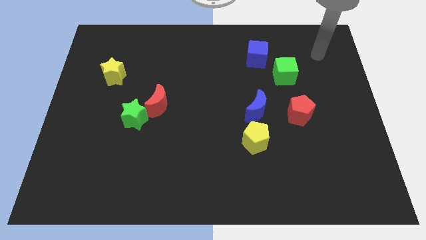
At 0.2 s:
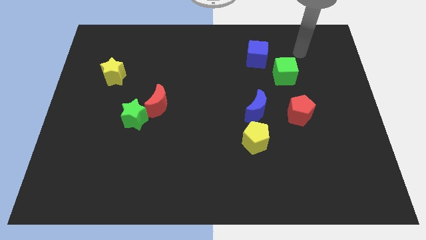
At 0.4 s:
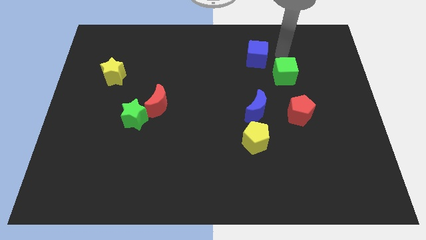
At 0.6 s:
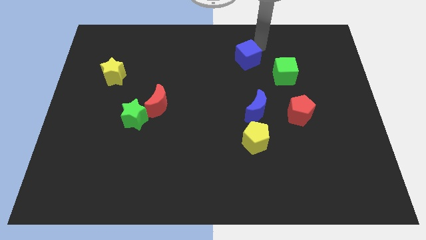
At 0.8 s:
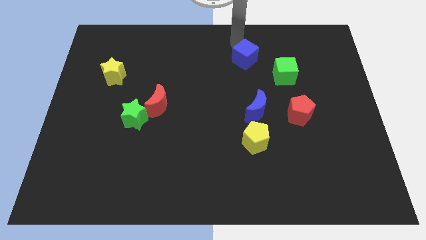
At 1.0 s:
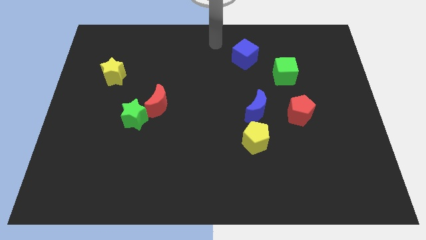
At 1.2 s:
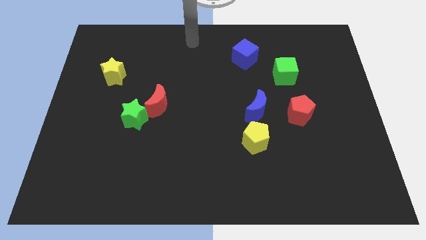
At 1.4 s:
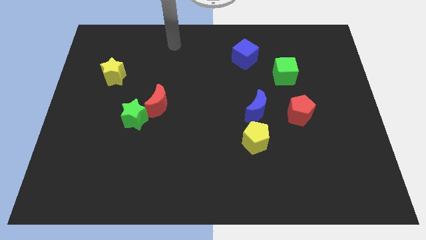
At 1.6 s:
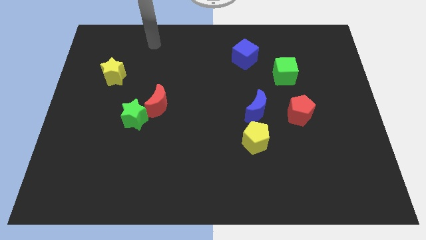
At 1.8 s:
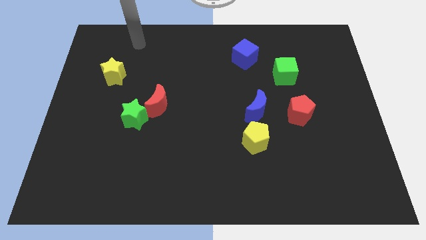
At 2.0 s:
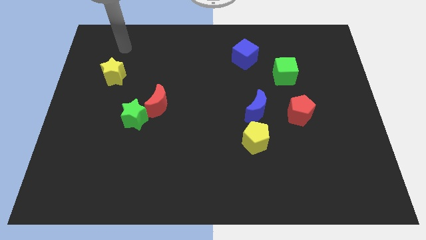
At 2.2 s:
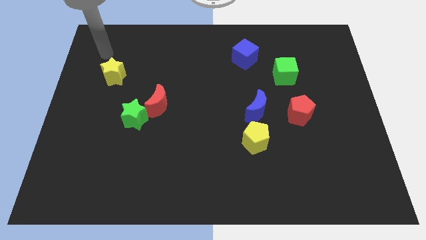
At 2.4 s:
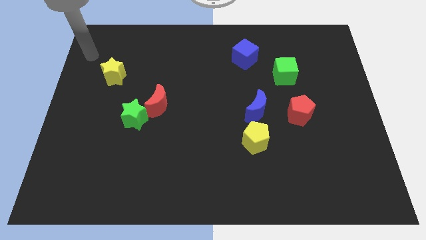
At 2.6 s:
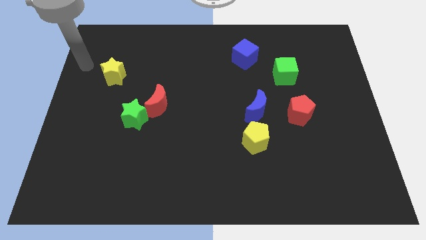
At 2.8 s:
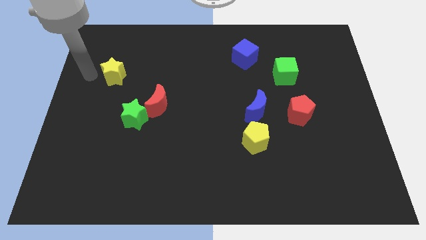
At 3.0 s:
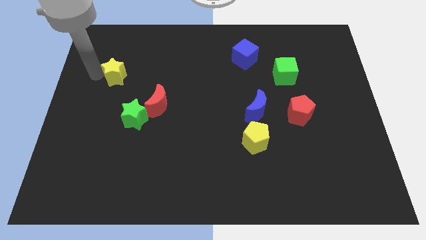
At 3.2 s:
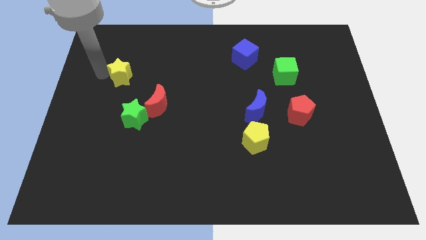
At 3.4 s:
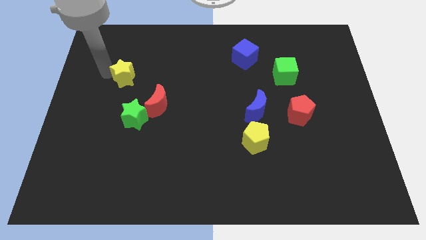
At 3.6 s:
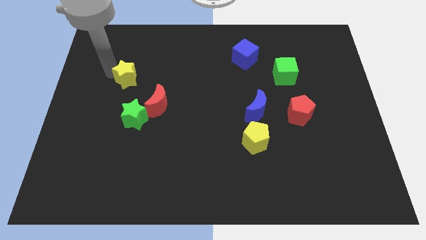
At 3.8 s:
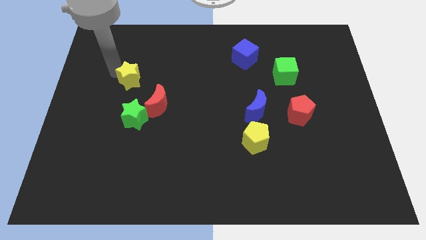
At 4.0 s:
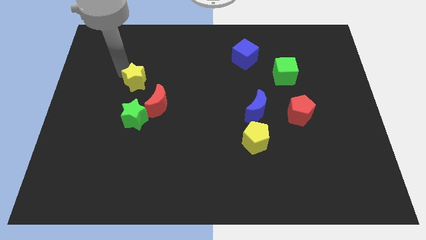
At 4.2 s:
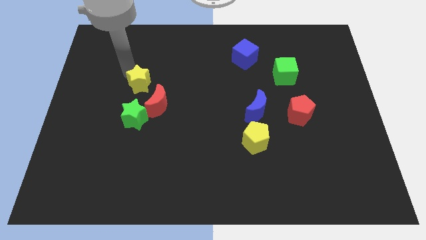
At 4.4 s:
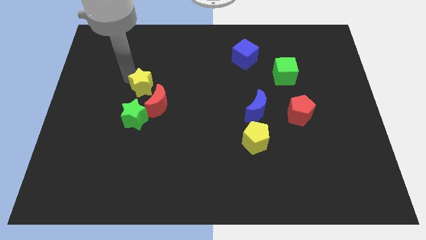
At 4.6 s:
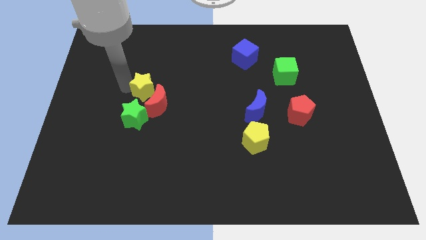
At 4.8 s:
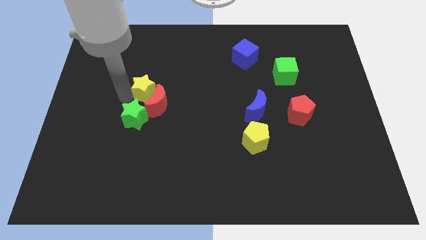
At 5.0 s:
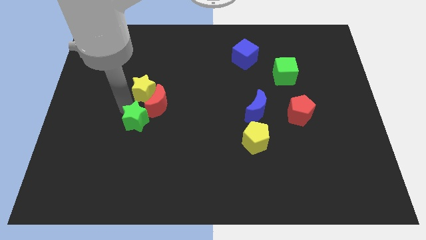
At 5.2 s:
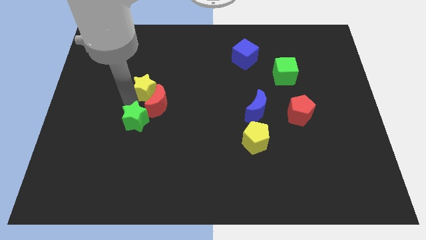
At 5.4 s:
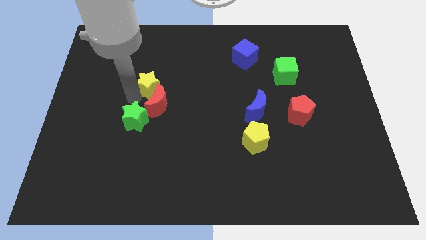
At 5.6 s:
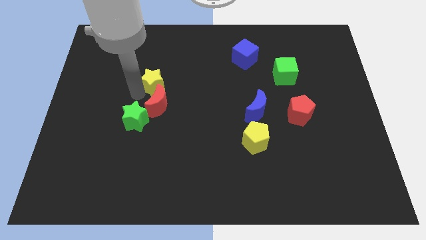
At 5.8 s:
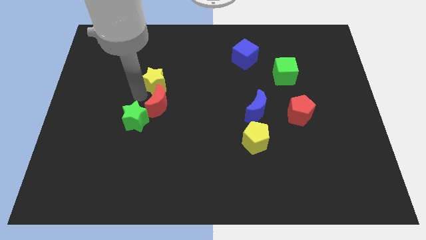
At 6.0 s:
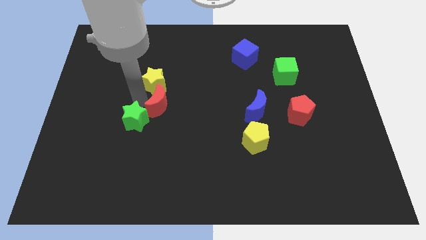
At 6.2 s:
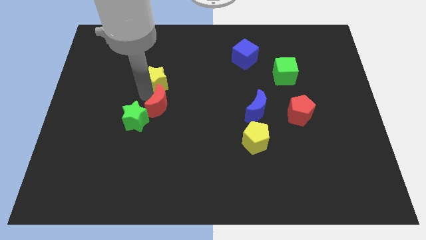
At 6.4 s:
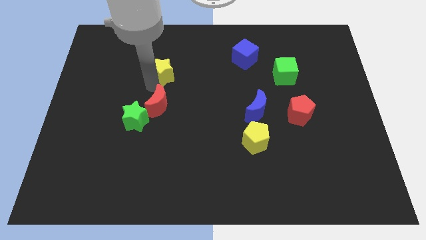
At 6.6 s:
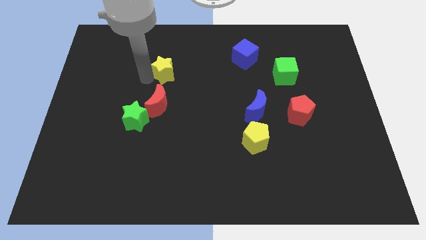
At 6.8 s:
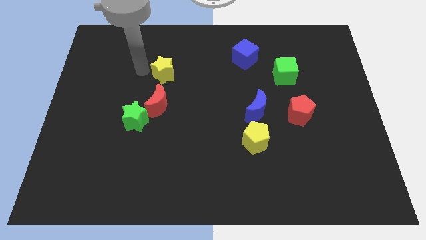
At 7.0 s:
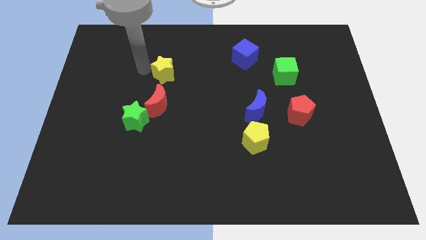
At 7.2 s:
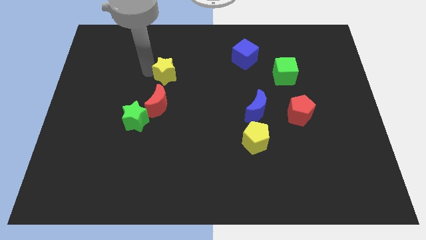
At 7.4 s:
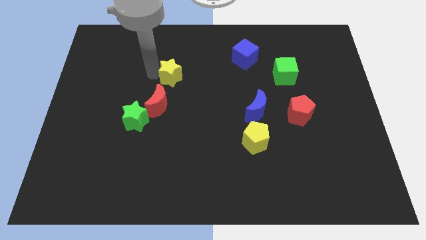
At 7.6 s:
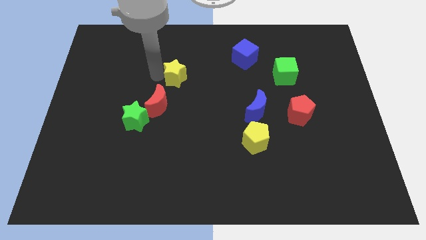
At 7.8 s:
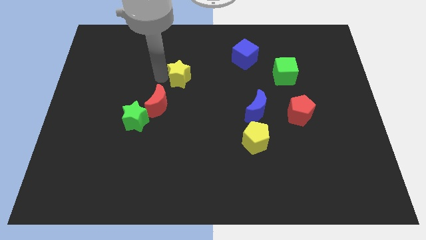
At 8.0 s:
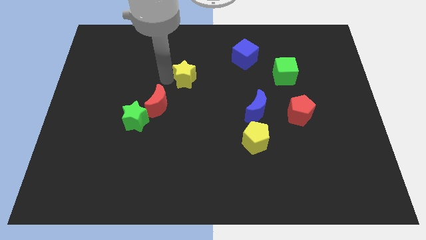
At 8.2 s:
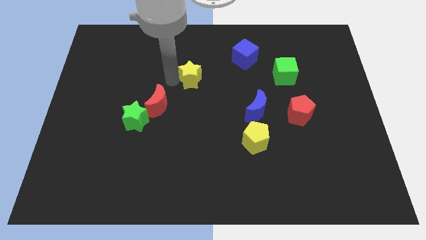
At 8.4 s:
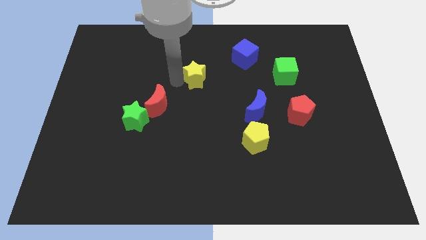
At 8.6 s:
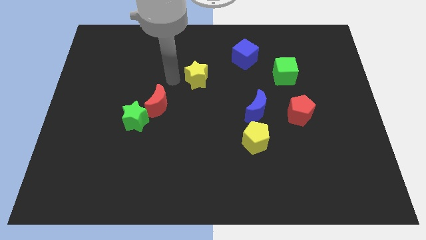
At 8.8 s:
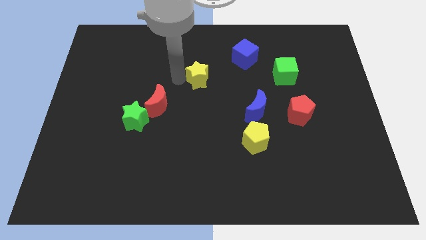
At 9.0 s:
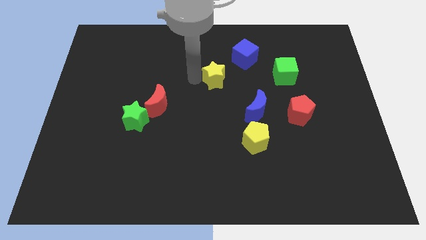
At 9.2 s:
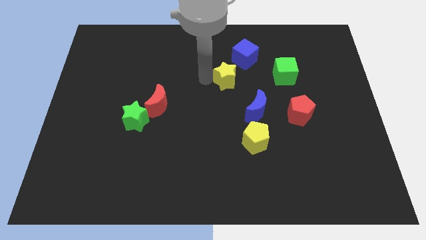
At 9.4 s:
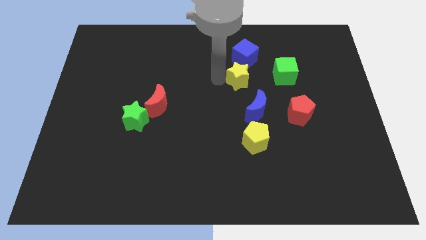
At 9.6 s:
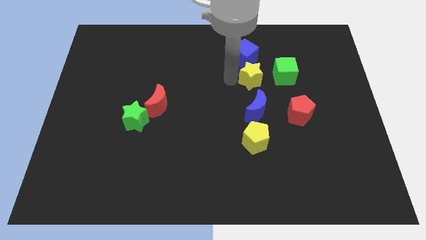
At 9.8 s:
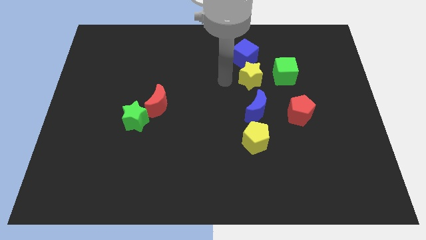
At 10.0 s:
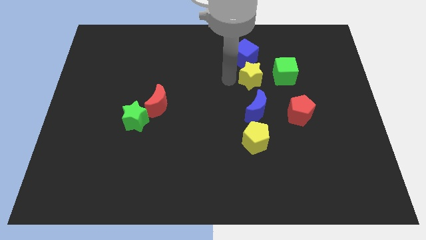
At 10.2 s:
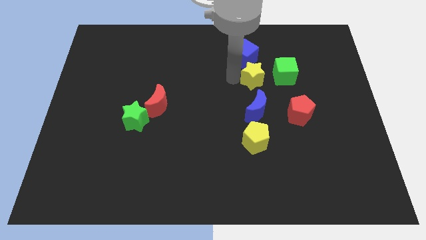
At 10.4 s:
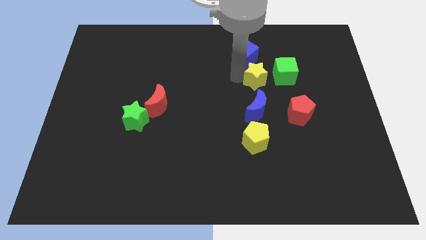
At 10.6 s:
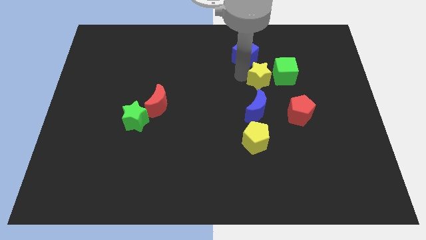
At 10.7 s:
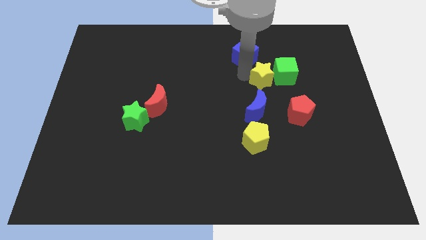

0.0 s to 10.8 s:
move the yellow star towards the green cube

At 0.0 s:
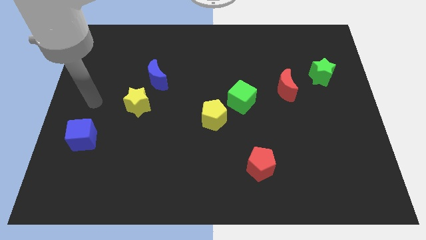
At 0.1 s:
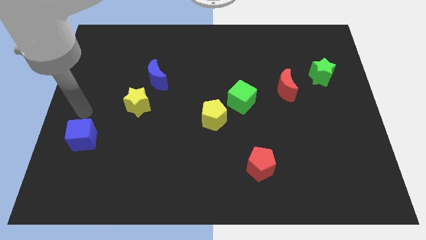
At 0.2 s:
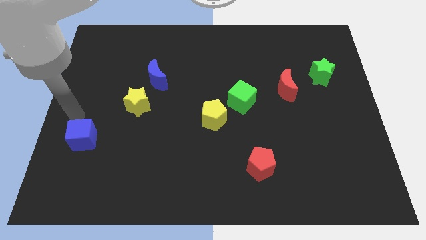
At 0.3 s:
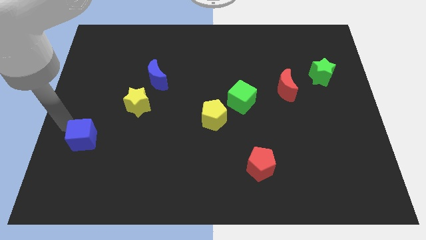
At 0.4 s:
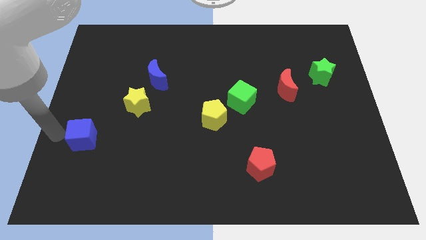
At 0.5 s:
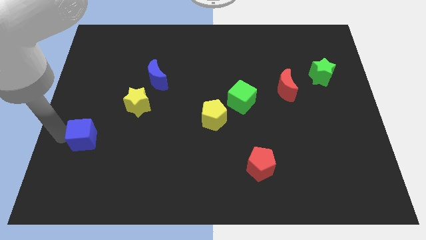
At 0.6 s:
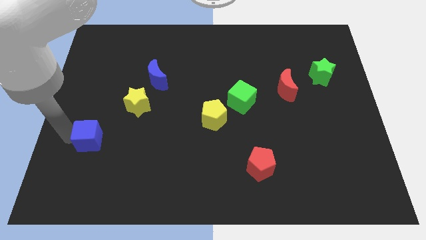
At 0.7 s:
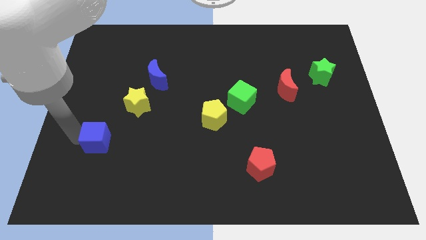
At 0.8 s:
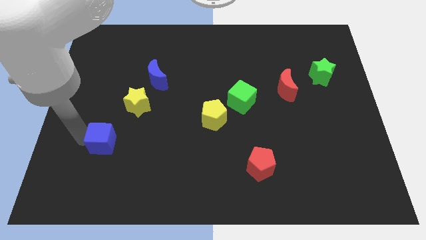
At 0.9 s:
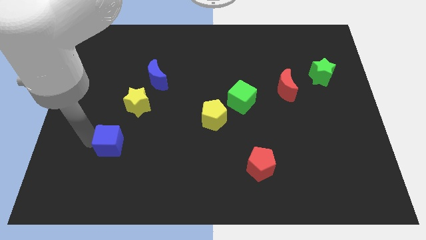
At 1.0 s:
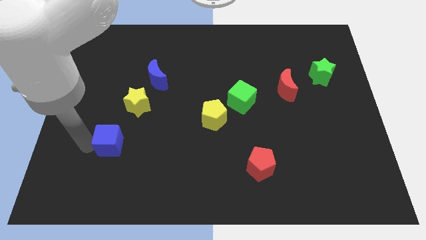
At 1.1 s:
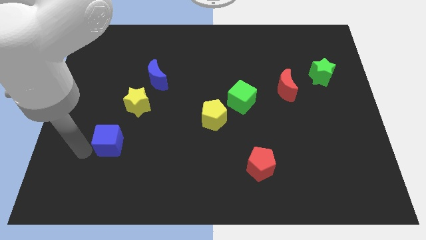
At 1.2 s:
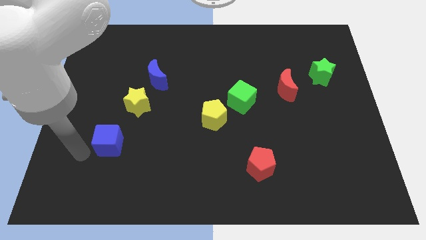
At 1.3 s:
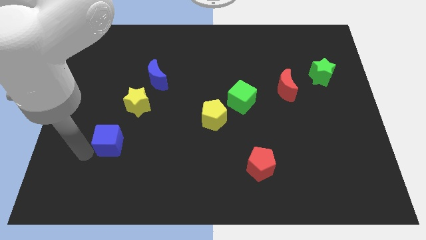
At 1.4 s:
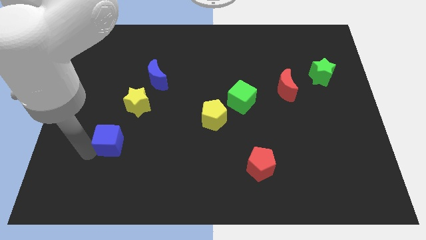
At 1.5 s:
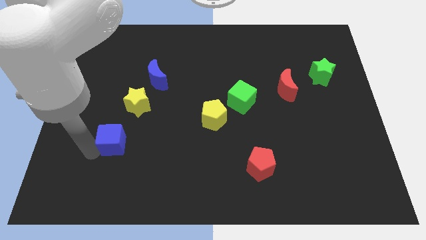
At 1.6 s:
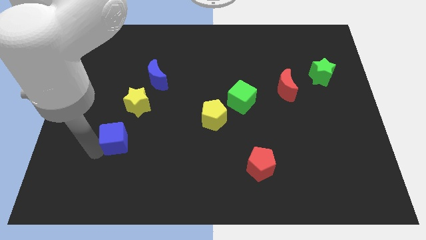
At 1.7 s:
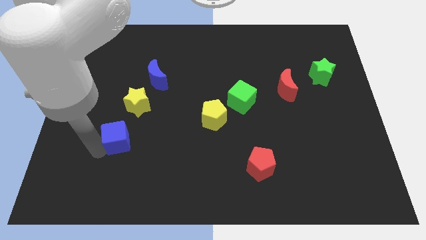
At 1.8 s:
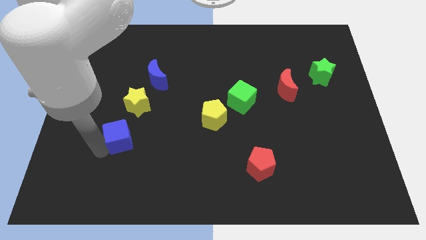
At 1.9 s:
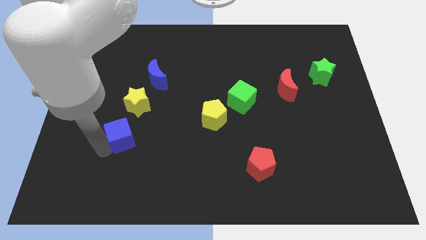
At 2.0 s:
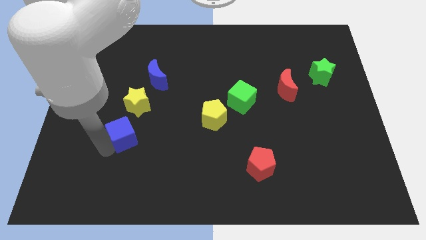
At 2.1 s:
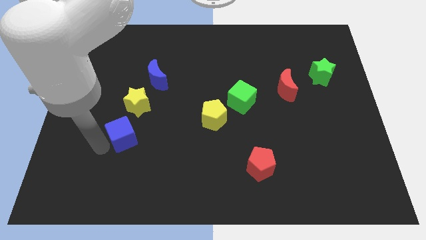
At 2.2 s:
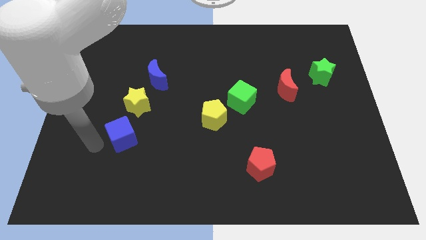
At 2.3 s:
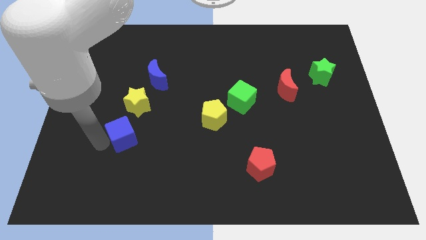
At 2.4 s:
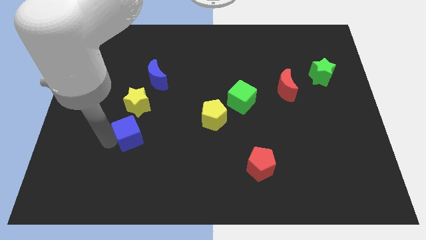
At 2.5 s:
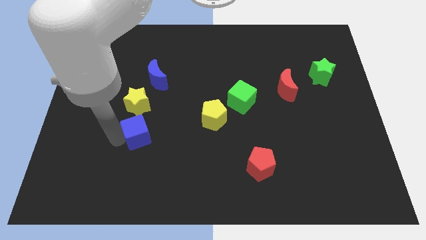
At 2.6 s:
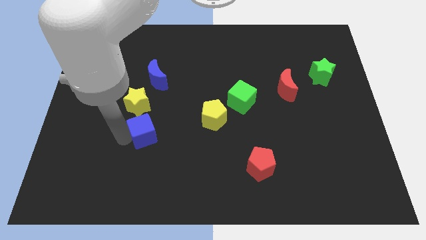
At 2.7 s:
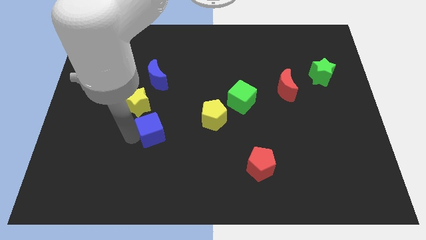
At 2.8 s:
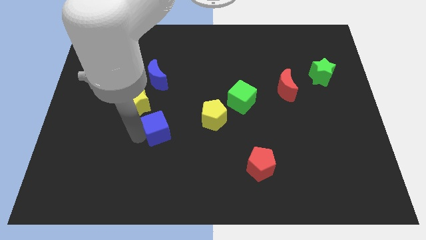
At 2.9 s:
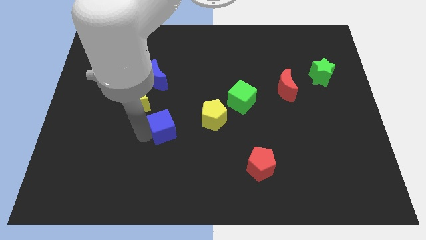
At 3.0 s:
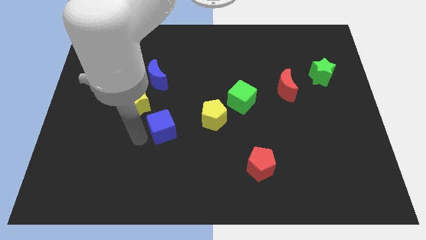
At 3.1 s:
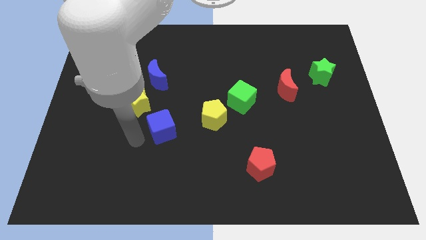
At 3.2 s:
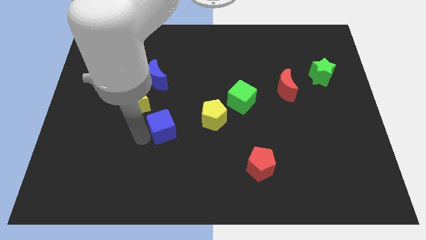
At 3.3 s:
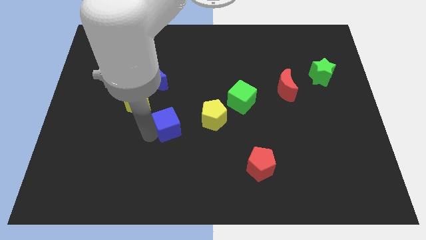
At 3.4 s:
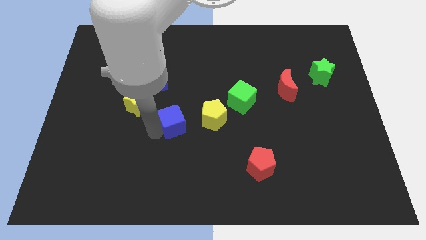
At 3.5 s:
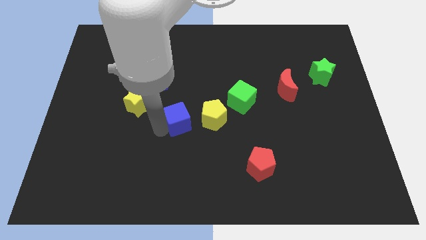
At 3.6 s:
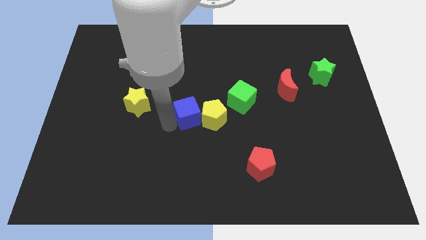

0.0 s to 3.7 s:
move the blue cube to the yellow pentagon
